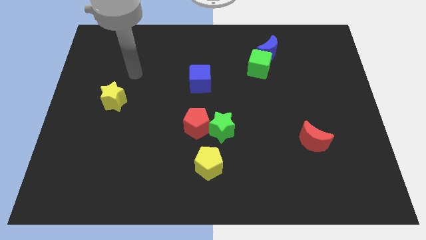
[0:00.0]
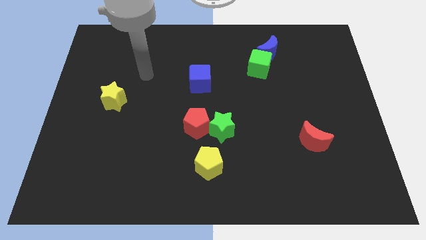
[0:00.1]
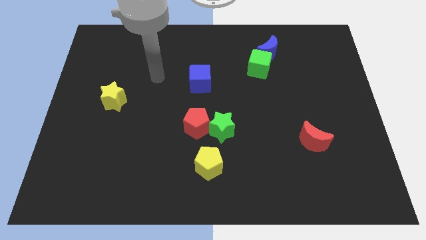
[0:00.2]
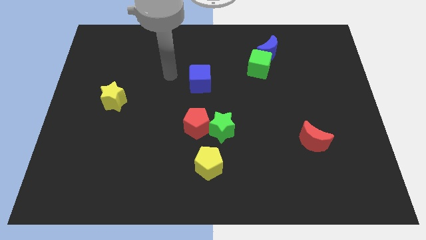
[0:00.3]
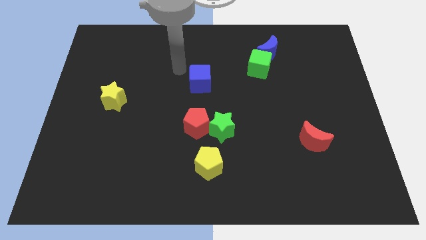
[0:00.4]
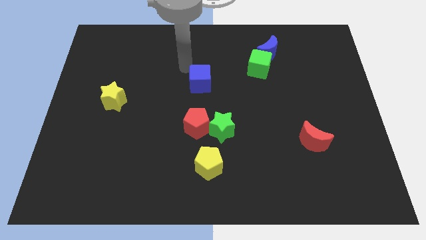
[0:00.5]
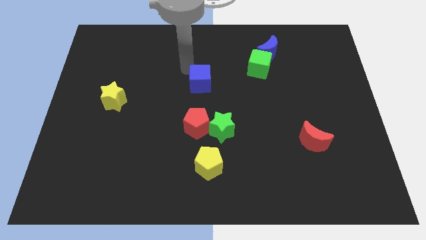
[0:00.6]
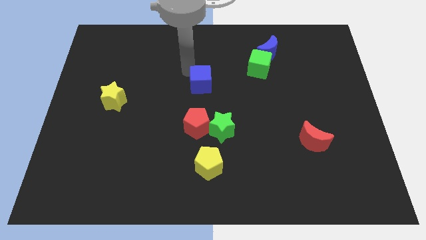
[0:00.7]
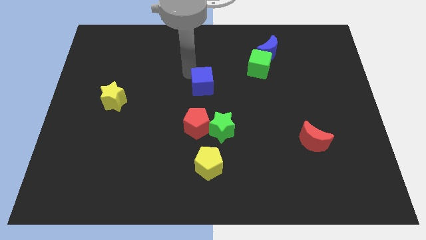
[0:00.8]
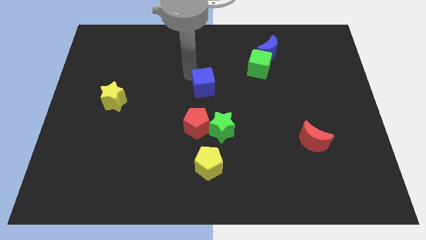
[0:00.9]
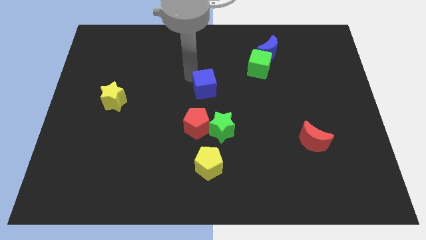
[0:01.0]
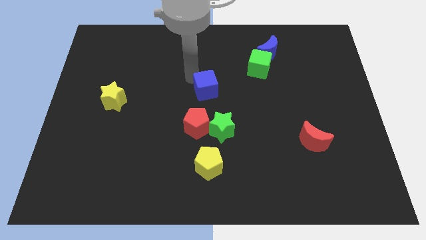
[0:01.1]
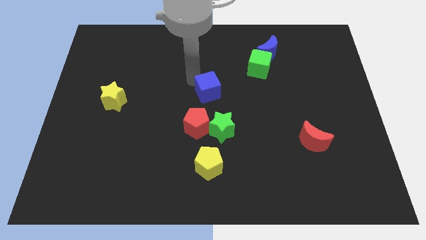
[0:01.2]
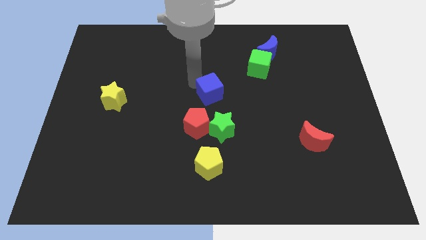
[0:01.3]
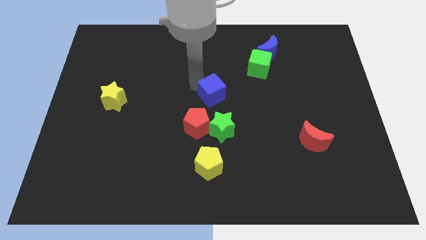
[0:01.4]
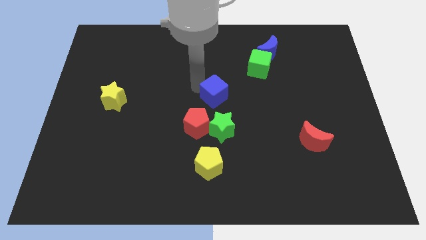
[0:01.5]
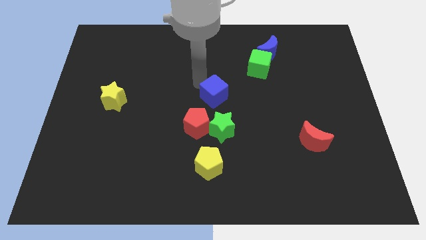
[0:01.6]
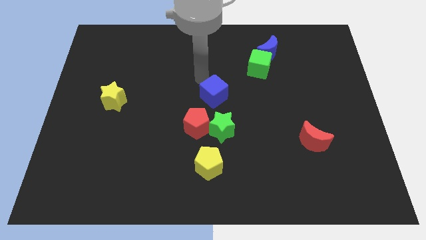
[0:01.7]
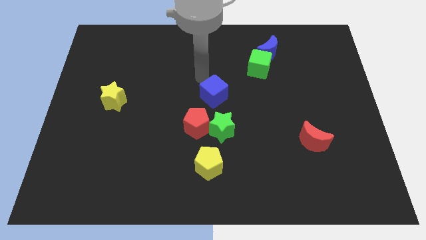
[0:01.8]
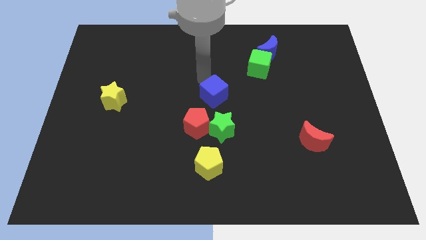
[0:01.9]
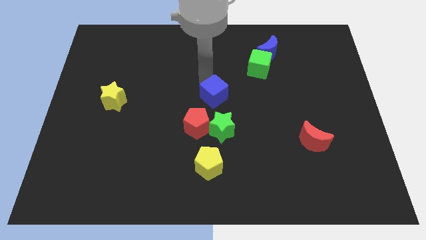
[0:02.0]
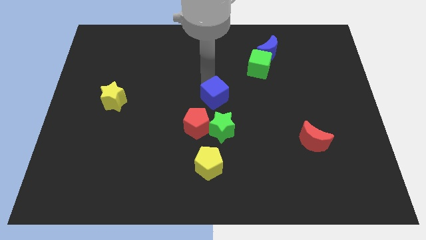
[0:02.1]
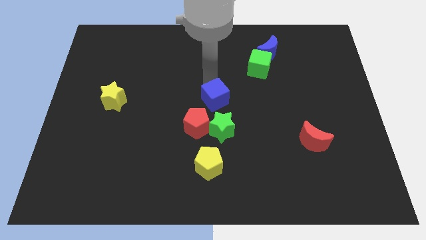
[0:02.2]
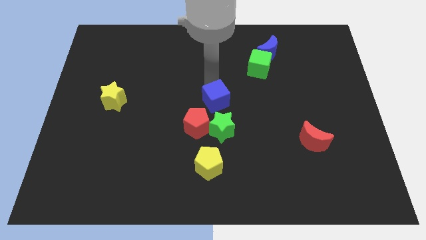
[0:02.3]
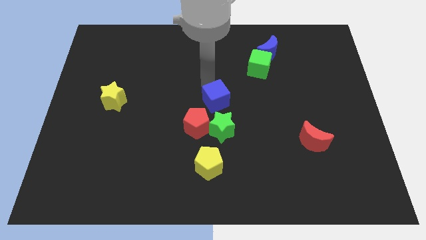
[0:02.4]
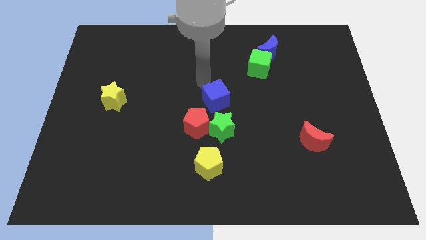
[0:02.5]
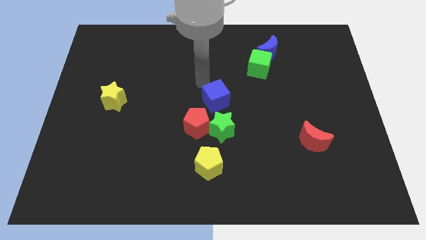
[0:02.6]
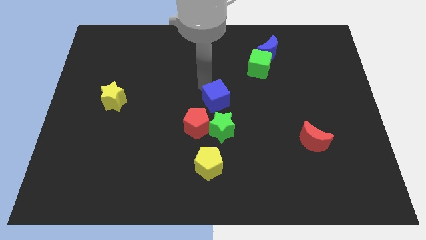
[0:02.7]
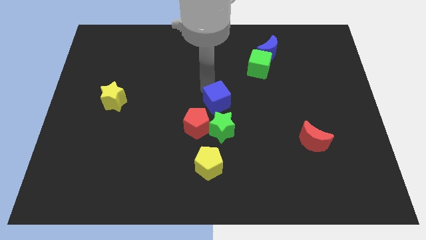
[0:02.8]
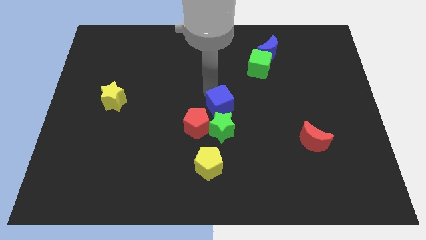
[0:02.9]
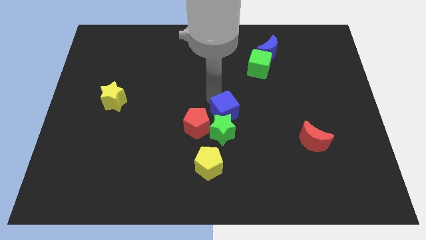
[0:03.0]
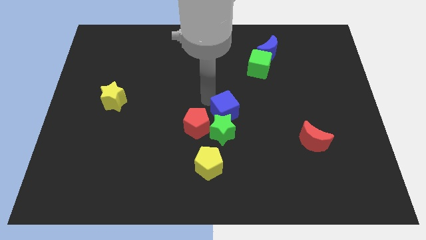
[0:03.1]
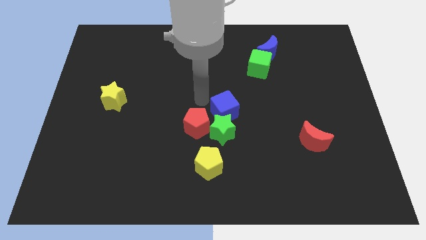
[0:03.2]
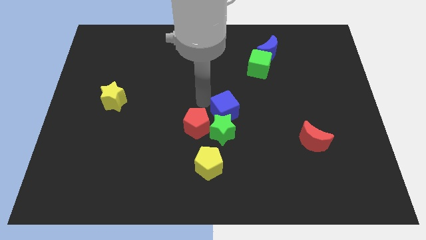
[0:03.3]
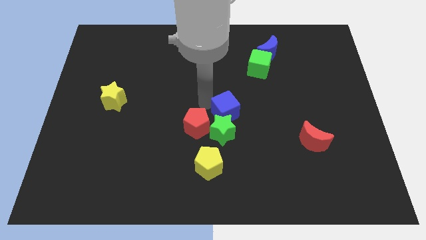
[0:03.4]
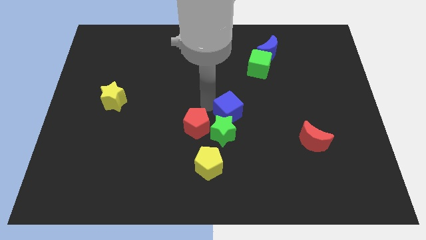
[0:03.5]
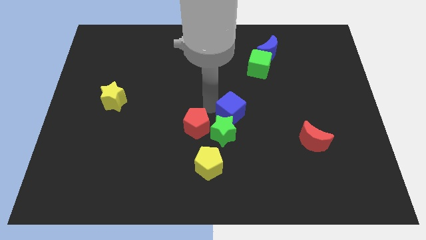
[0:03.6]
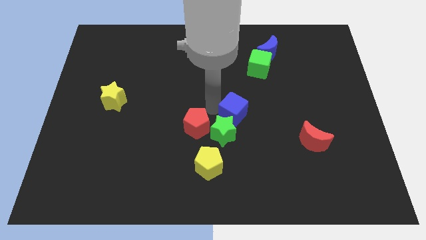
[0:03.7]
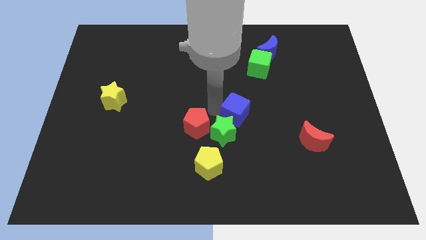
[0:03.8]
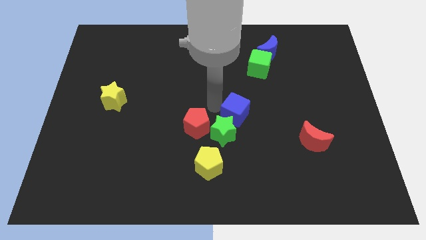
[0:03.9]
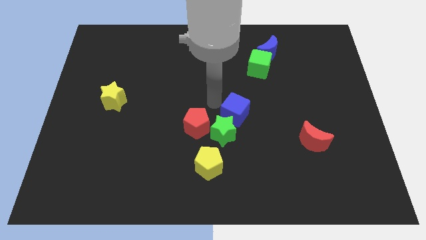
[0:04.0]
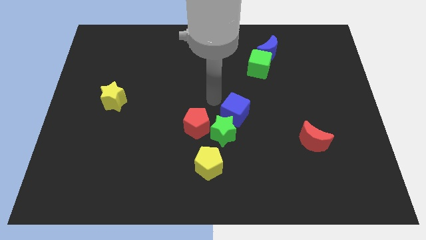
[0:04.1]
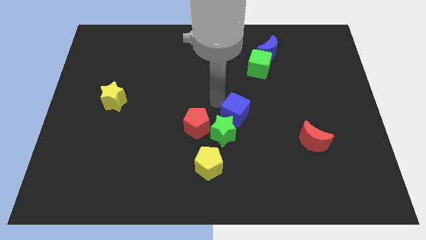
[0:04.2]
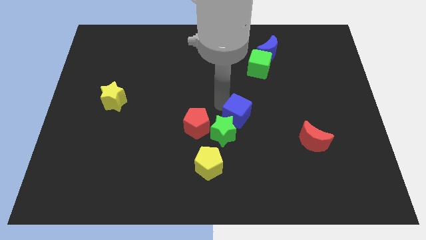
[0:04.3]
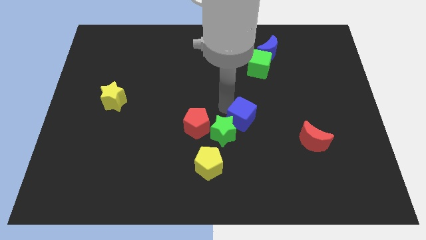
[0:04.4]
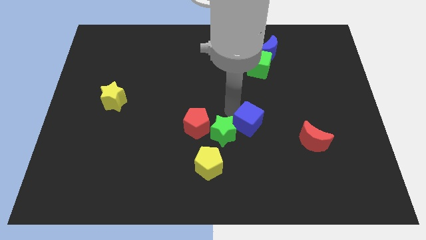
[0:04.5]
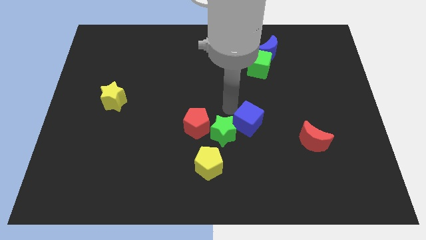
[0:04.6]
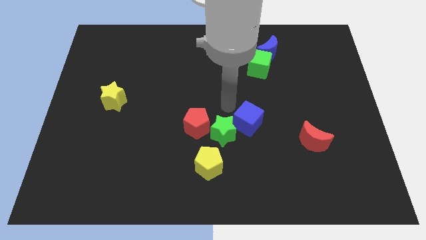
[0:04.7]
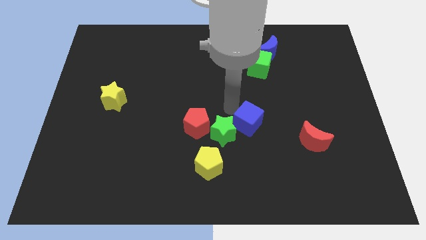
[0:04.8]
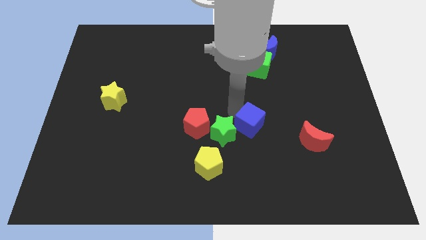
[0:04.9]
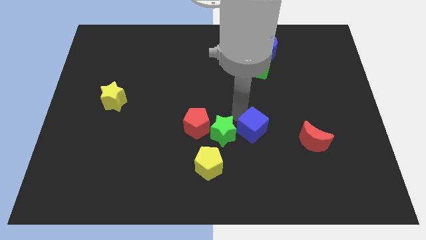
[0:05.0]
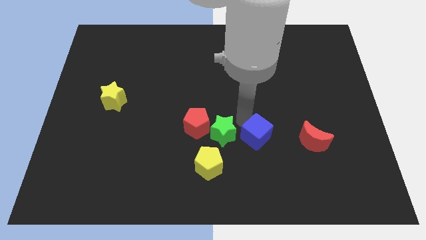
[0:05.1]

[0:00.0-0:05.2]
move the blue cube down and then right

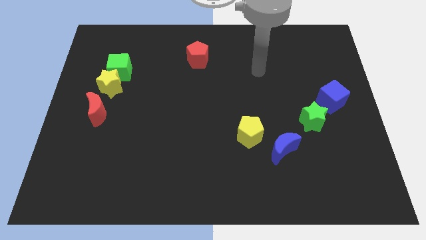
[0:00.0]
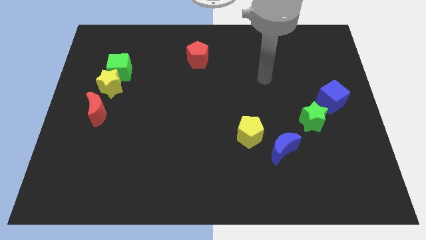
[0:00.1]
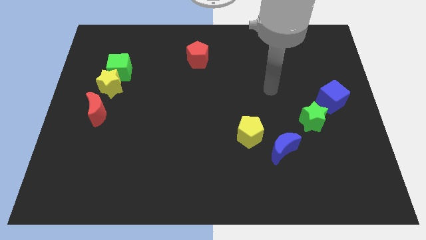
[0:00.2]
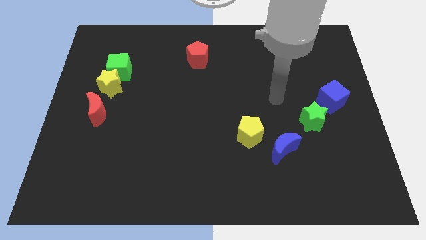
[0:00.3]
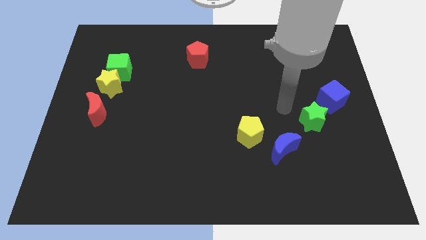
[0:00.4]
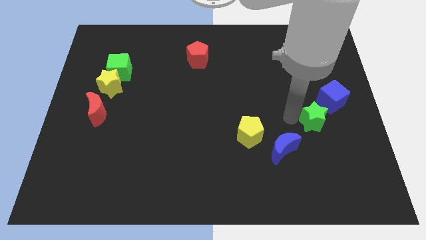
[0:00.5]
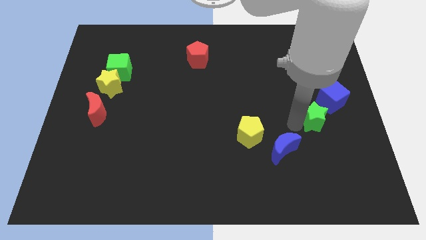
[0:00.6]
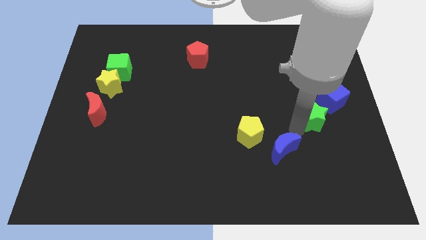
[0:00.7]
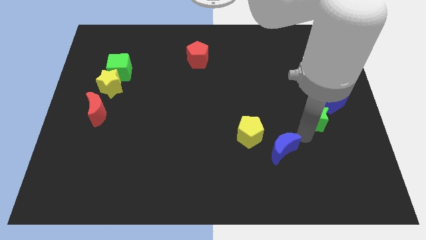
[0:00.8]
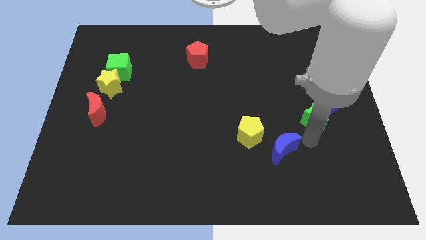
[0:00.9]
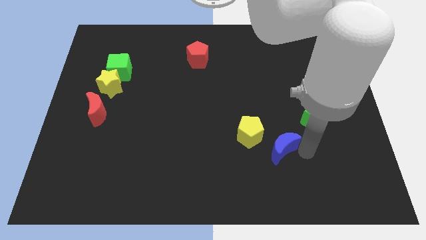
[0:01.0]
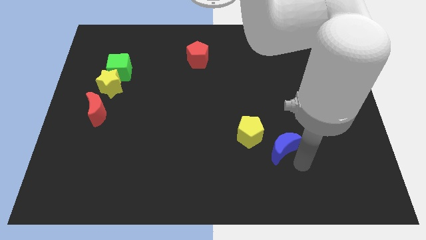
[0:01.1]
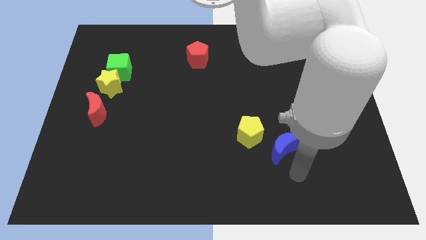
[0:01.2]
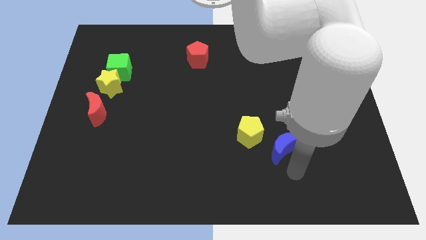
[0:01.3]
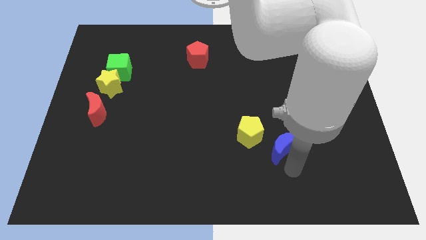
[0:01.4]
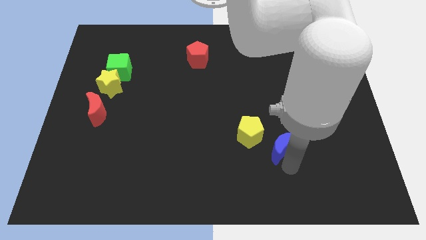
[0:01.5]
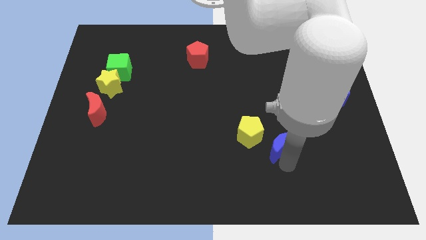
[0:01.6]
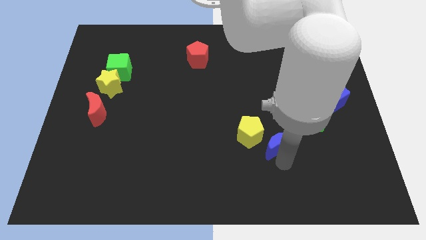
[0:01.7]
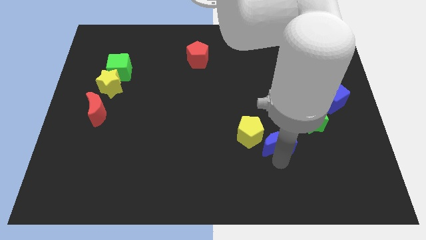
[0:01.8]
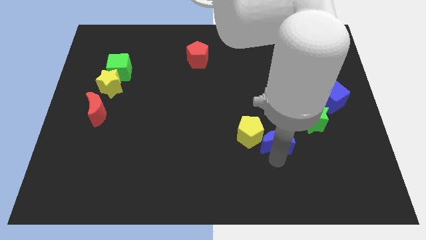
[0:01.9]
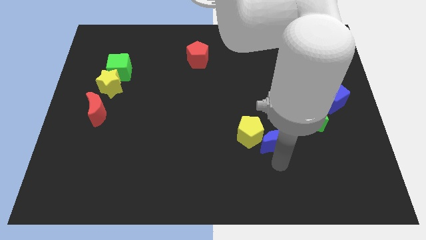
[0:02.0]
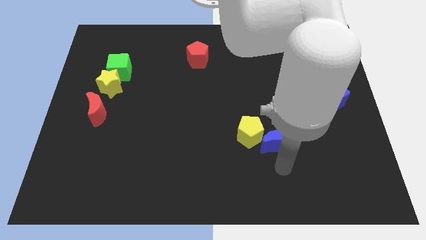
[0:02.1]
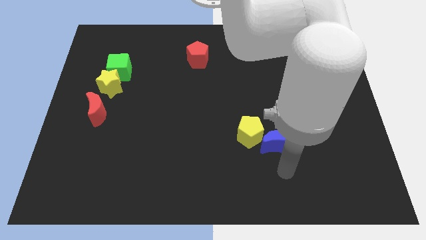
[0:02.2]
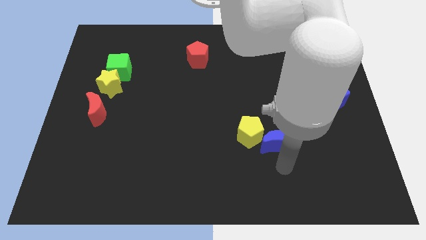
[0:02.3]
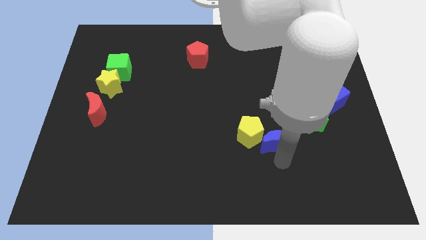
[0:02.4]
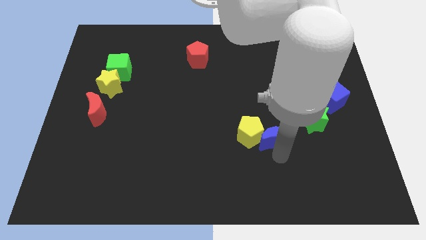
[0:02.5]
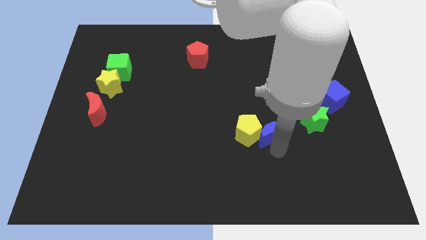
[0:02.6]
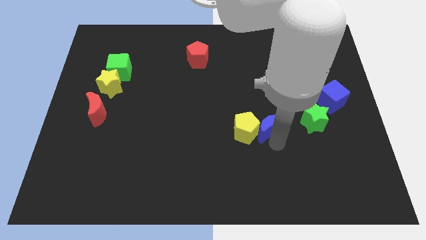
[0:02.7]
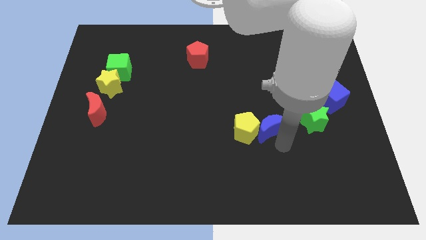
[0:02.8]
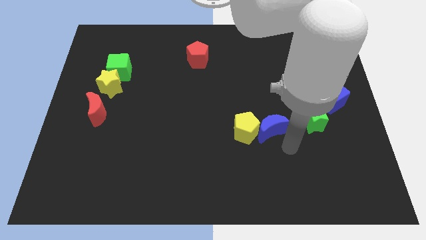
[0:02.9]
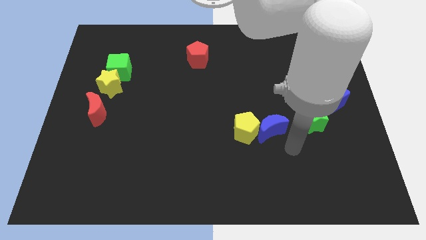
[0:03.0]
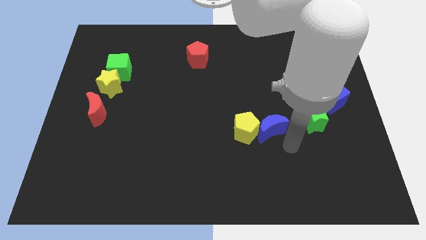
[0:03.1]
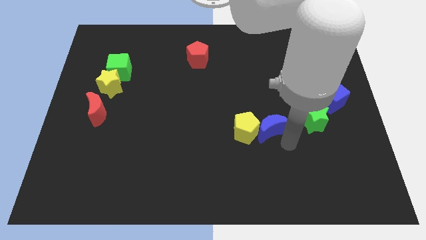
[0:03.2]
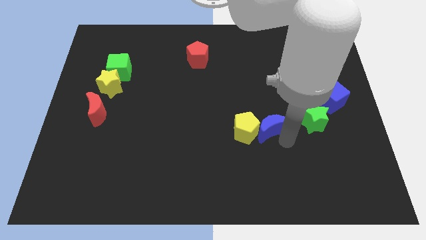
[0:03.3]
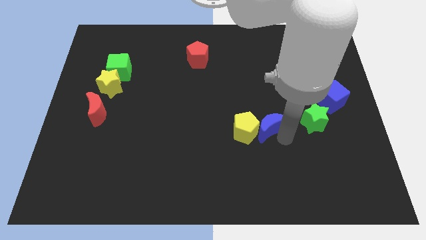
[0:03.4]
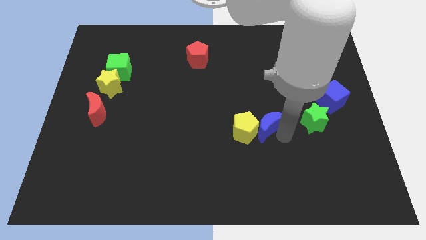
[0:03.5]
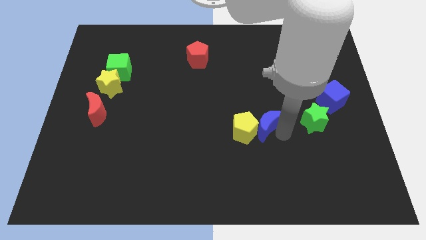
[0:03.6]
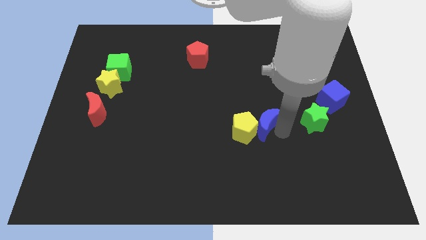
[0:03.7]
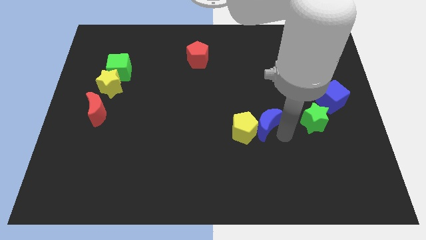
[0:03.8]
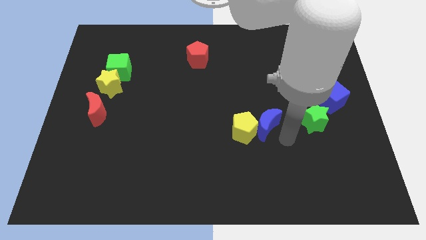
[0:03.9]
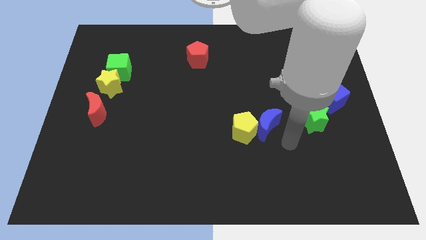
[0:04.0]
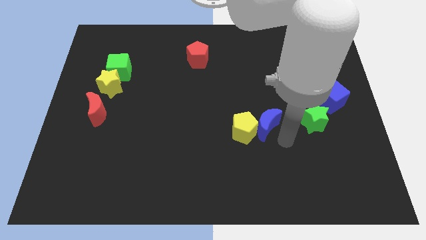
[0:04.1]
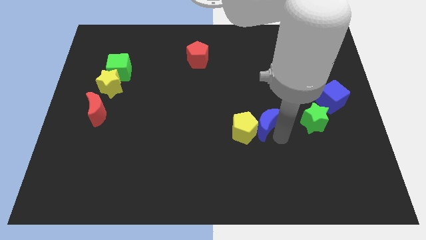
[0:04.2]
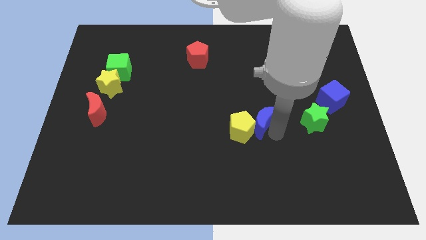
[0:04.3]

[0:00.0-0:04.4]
move the blue moon a little bit up and then to the left
